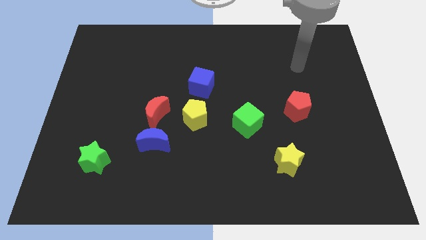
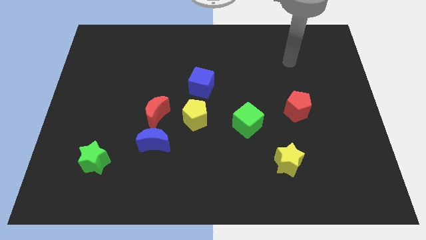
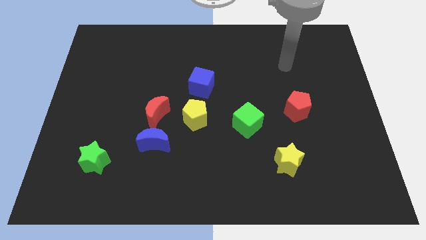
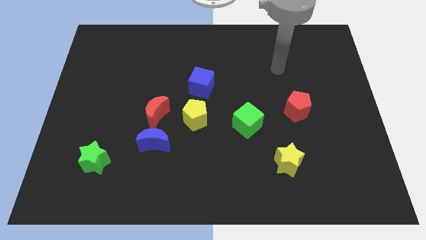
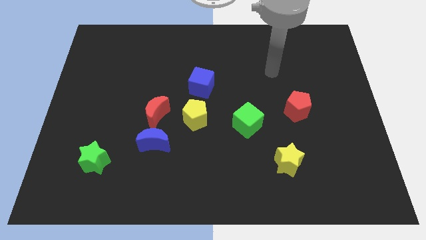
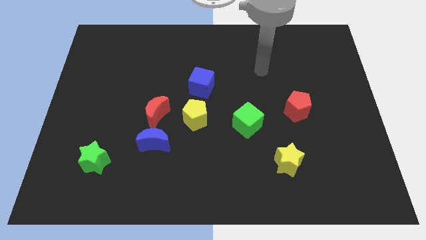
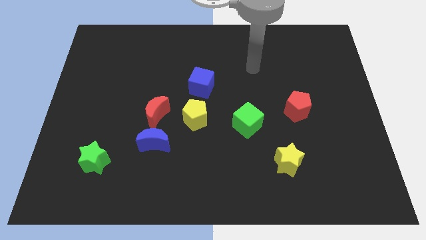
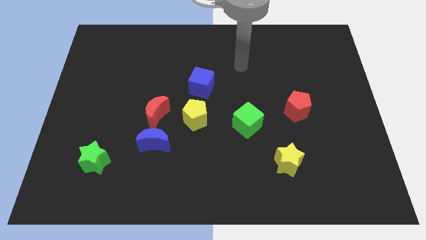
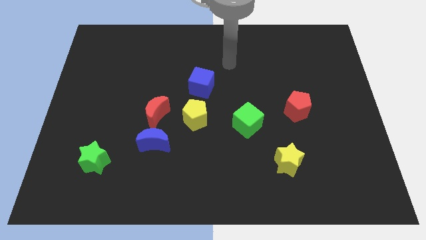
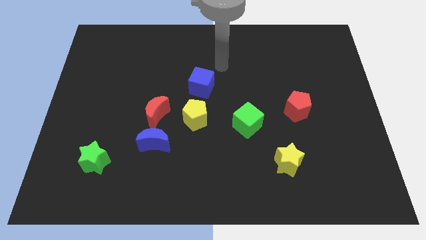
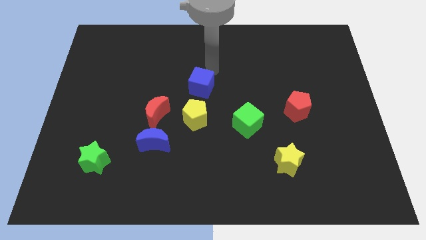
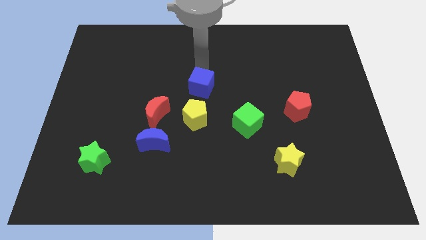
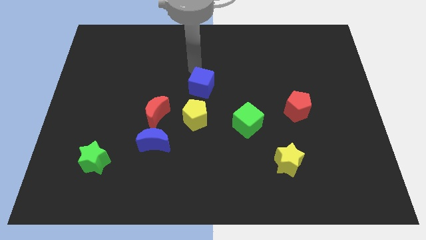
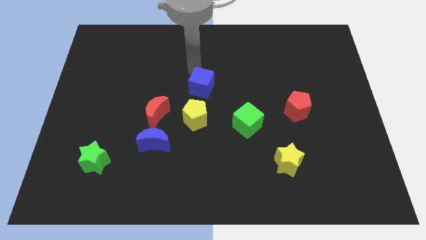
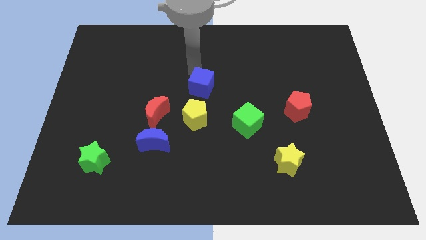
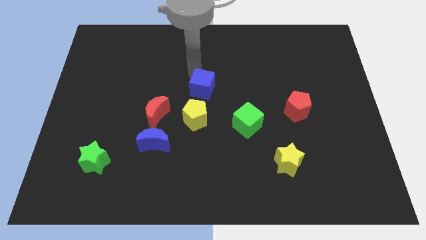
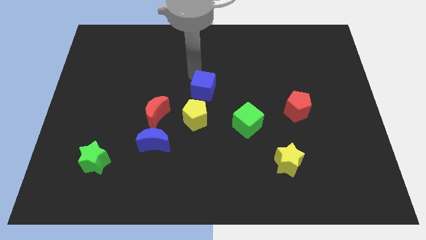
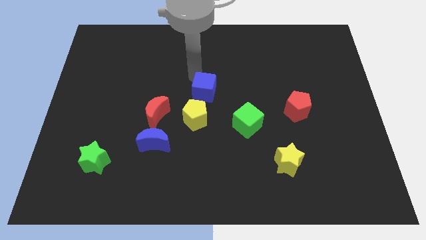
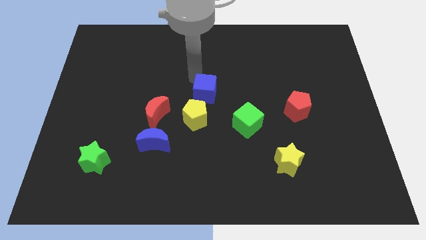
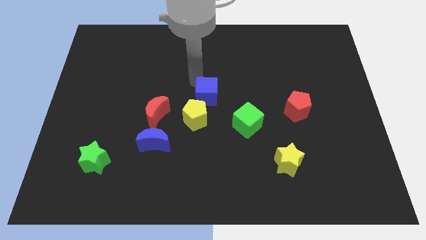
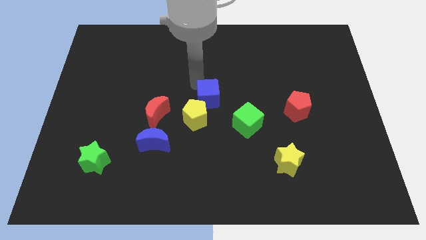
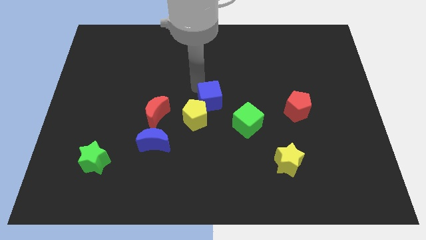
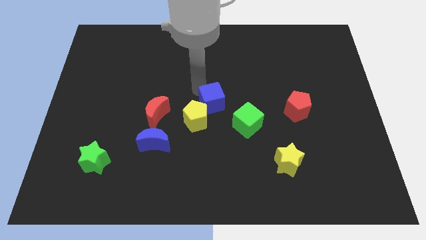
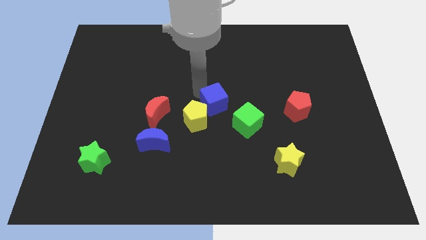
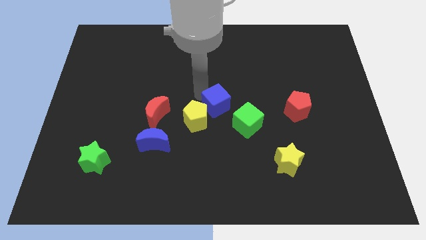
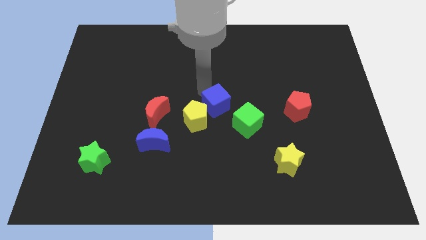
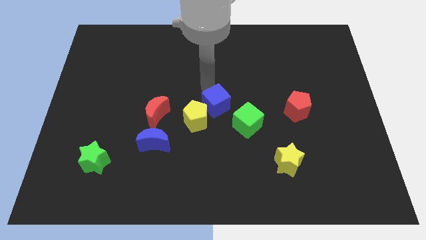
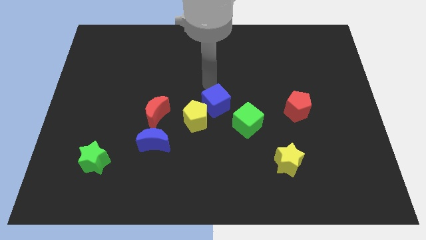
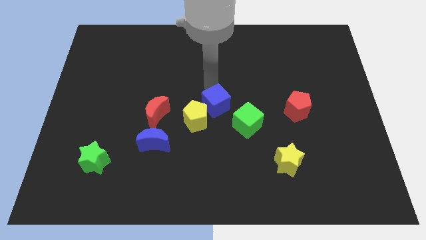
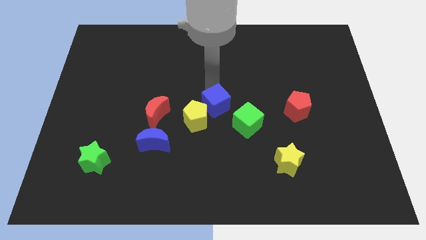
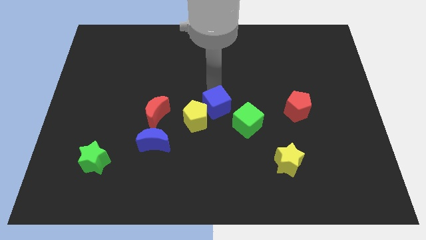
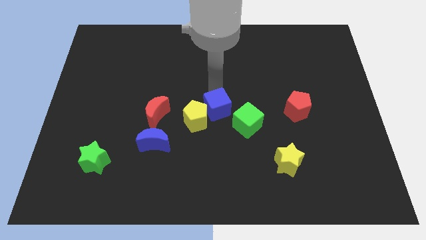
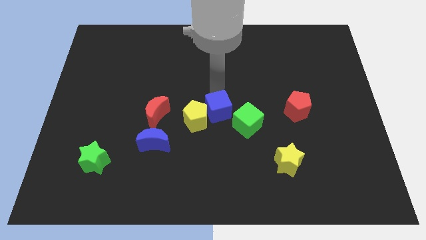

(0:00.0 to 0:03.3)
slide the blue cube slightly downwards

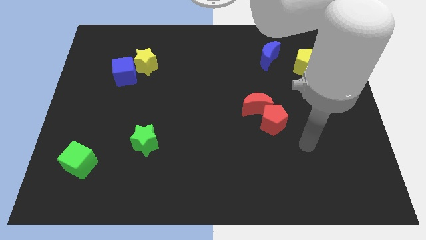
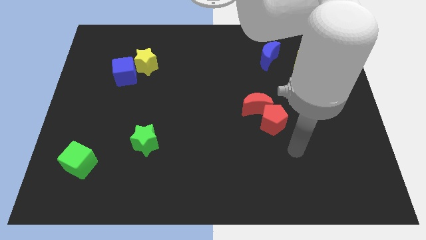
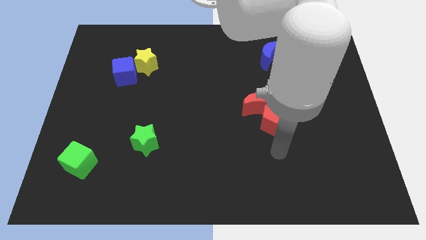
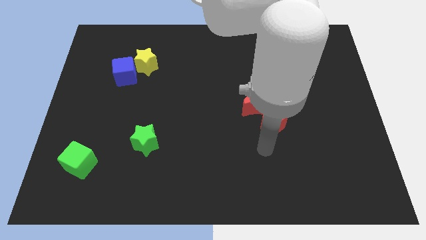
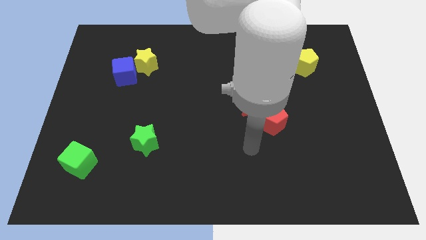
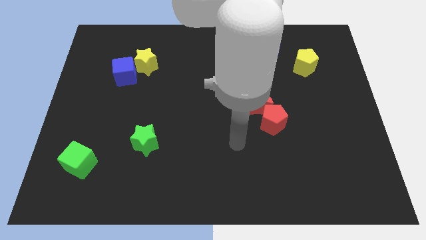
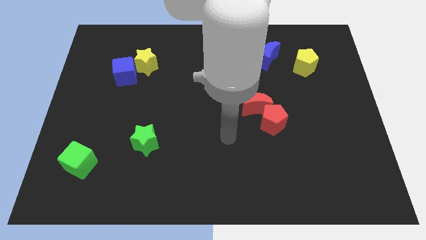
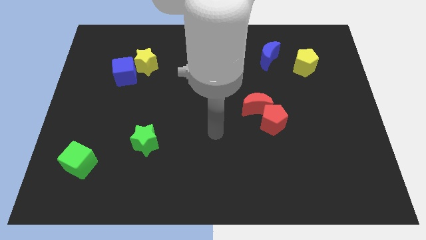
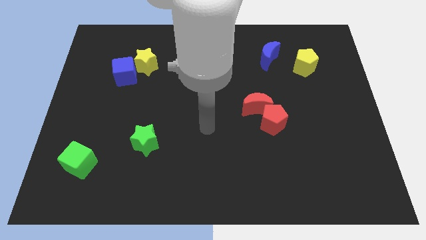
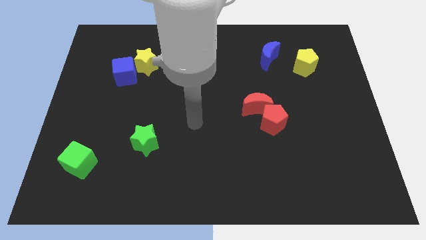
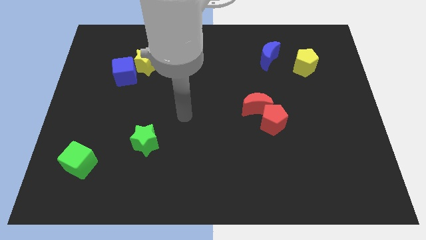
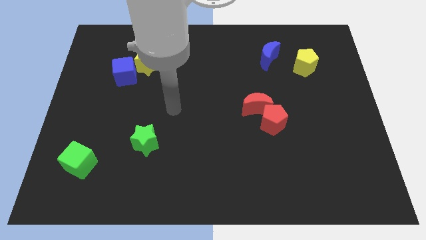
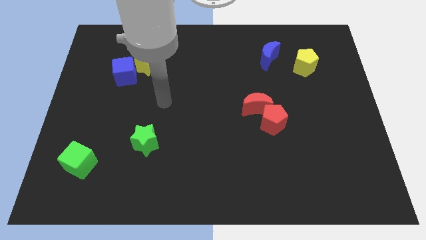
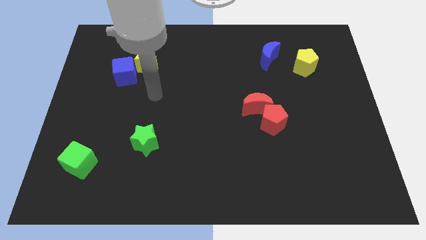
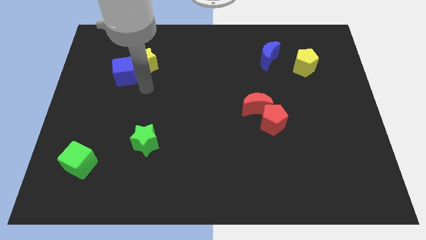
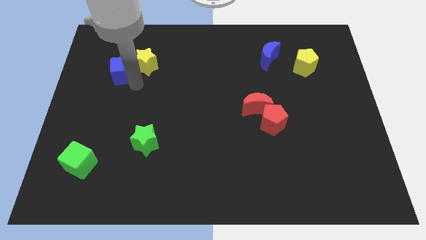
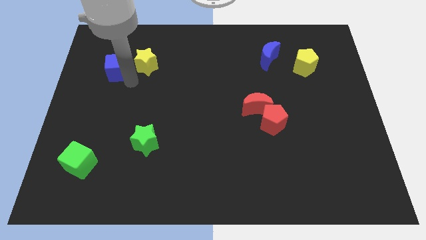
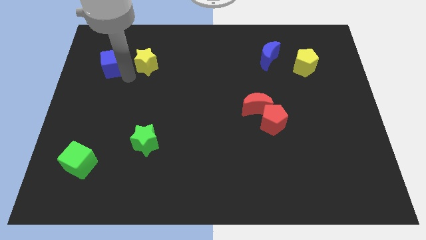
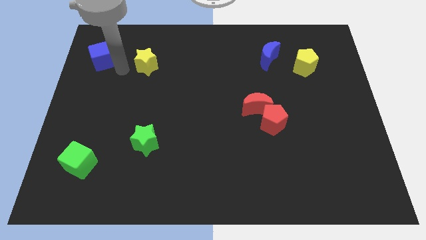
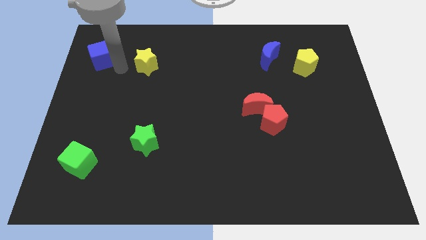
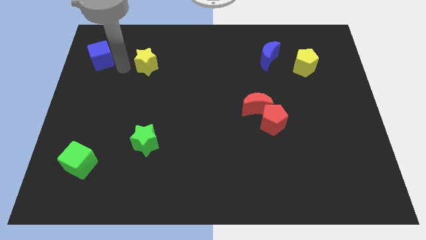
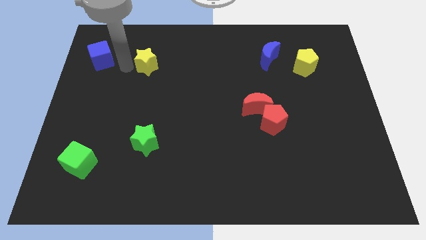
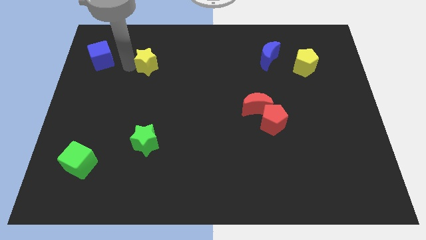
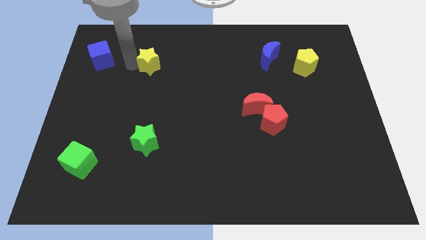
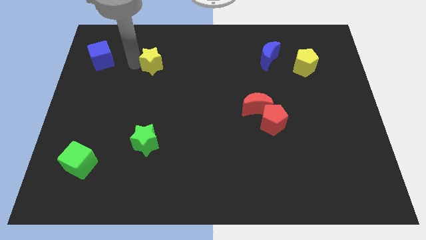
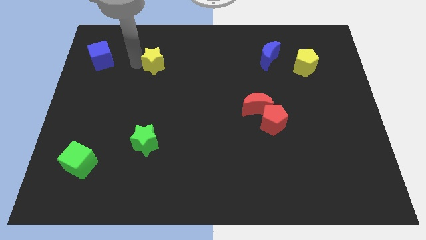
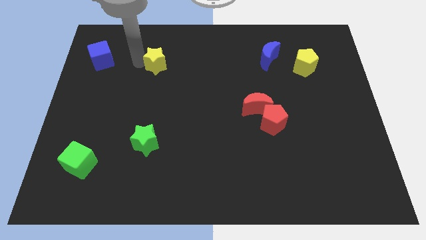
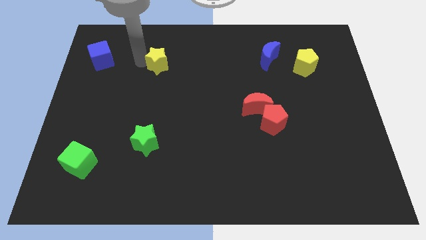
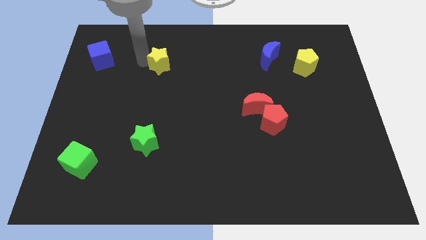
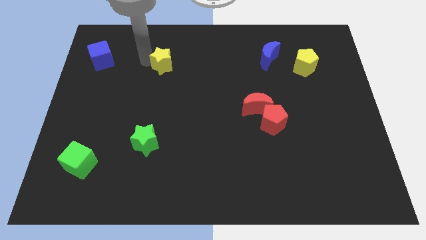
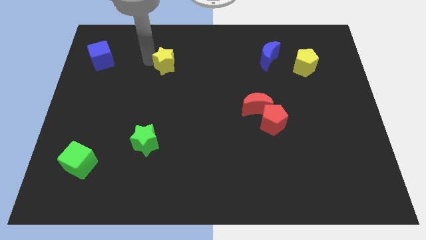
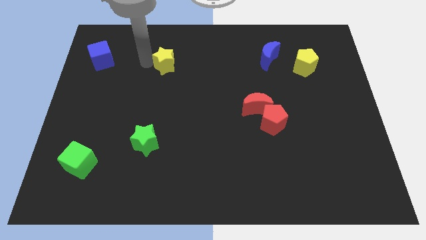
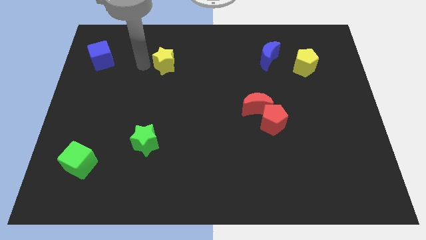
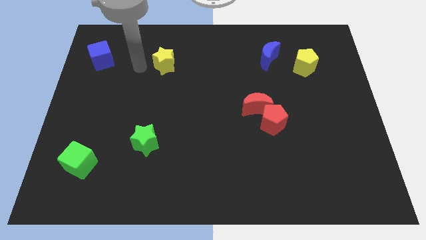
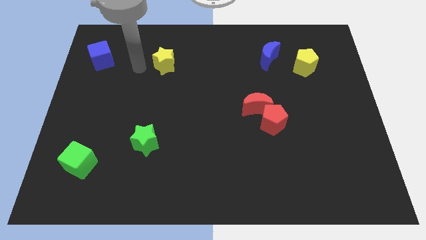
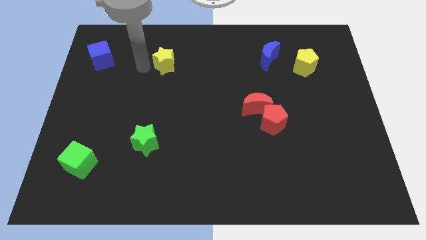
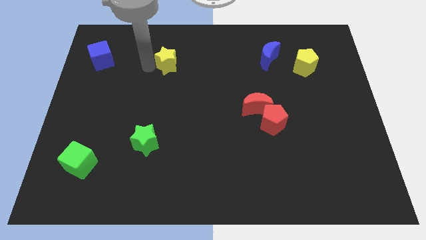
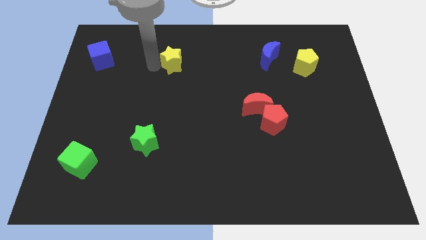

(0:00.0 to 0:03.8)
slightly slide the yellow star to the right

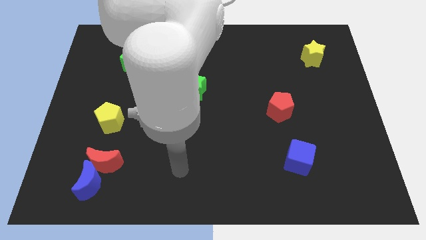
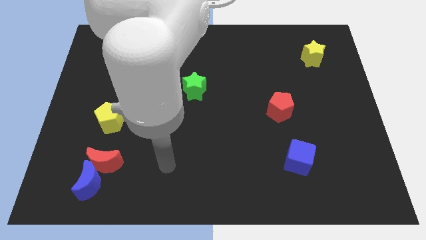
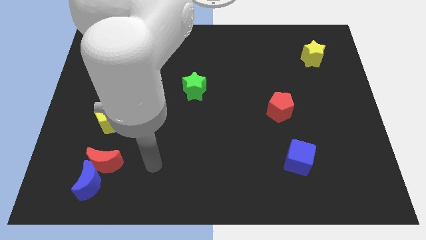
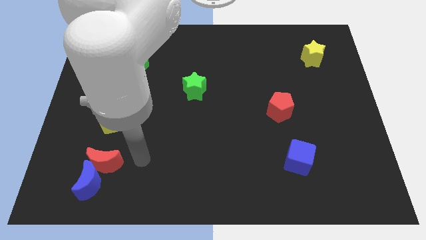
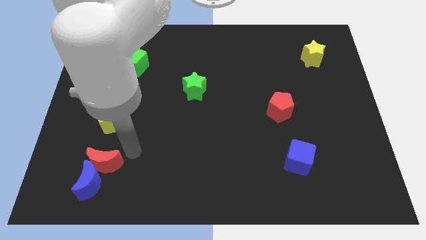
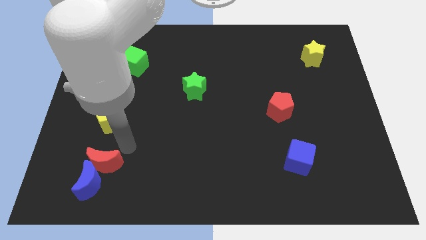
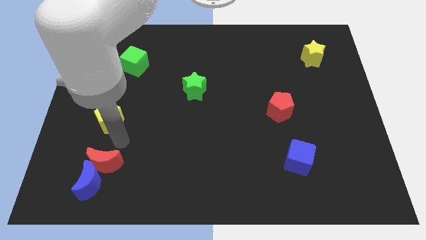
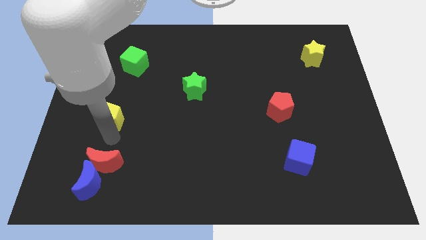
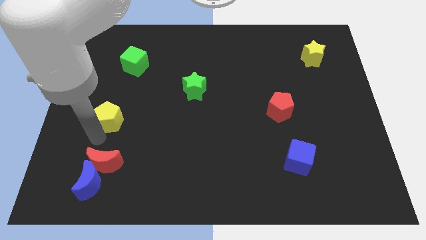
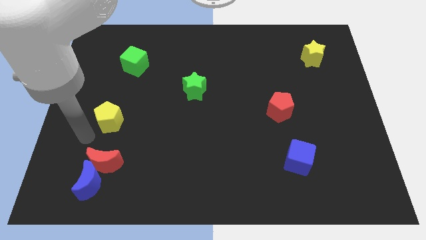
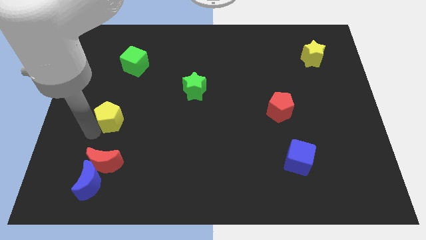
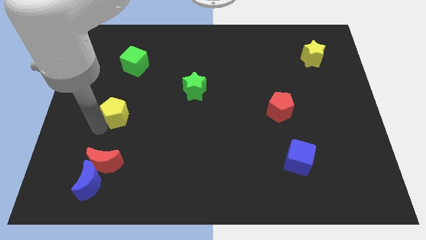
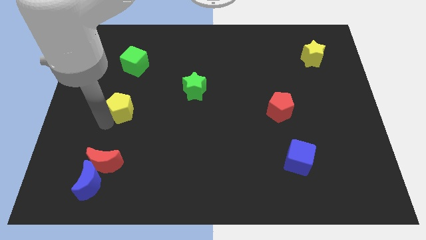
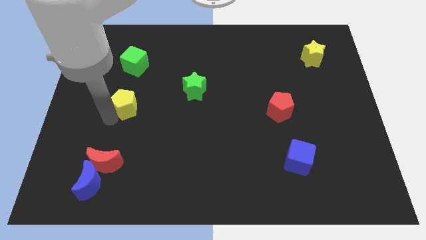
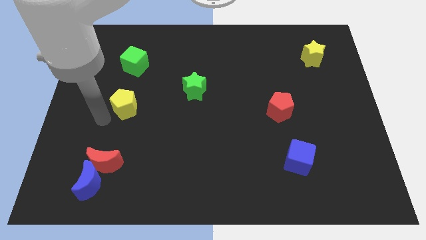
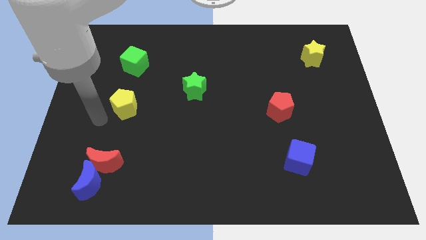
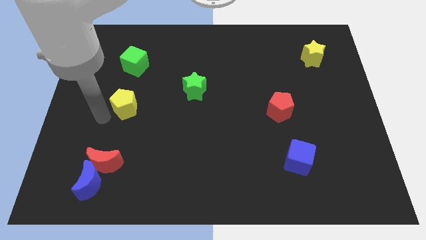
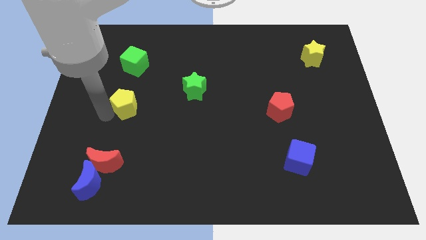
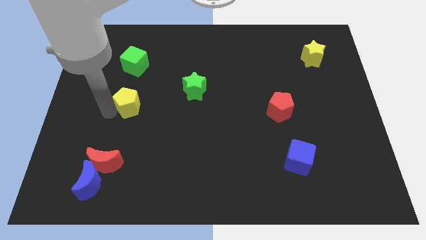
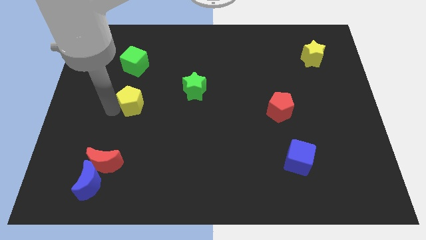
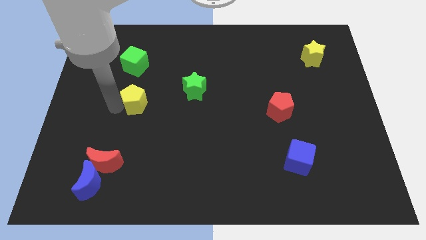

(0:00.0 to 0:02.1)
slide the yellow pentagon upwards and then to the right somewhat
